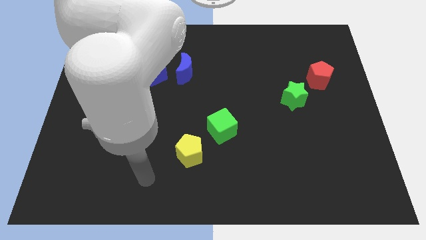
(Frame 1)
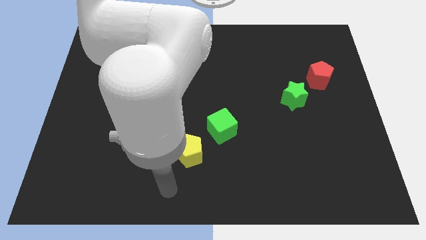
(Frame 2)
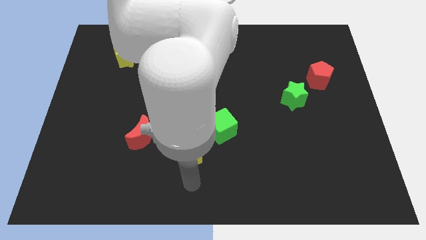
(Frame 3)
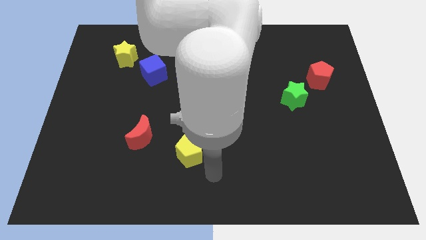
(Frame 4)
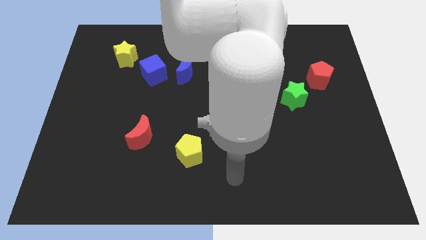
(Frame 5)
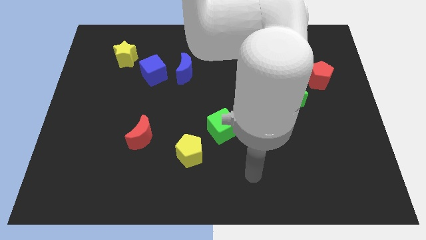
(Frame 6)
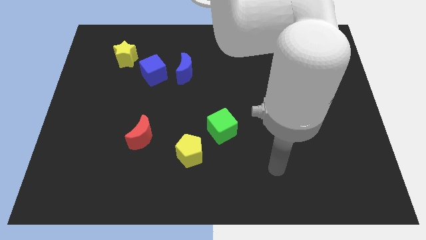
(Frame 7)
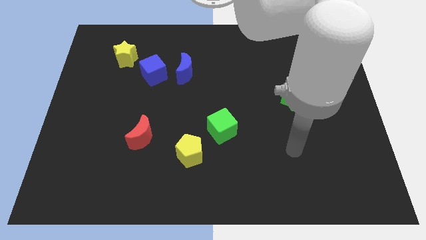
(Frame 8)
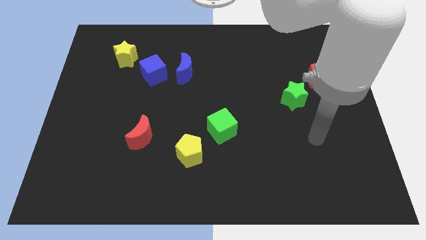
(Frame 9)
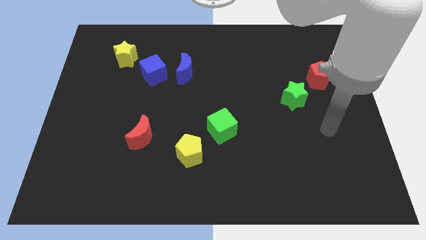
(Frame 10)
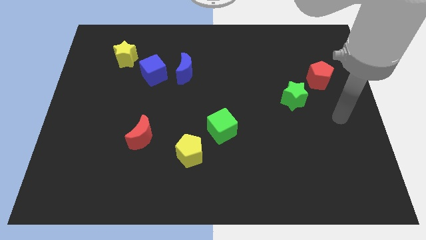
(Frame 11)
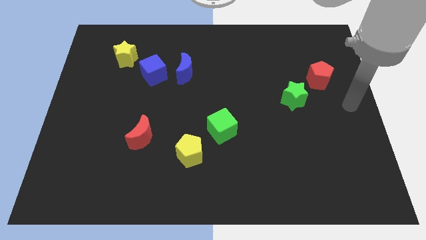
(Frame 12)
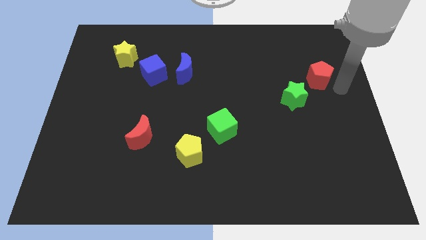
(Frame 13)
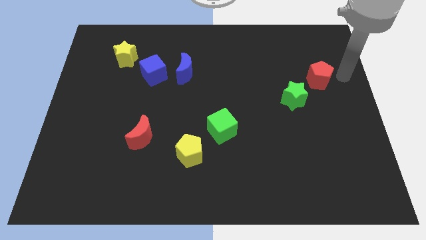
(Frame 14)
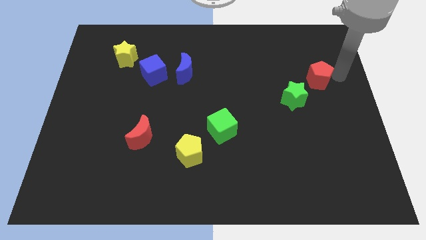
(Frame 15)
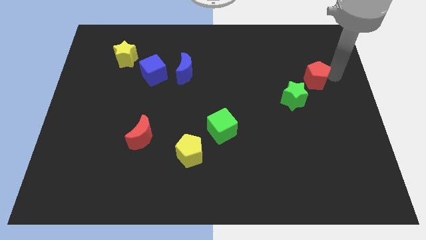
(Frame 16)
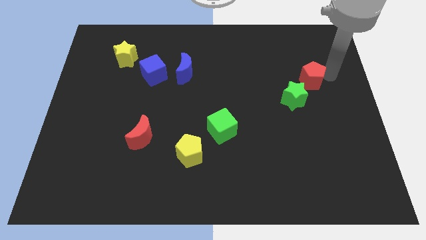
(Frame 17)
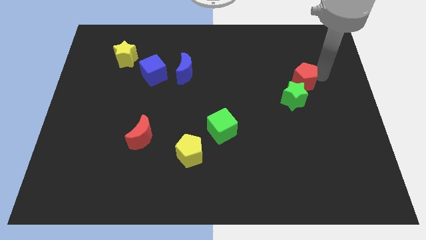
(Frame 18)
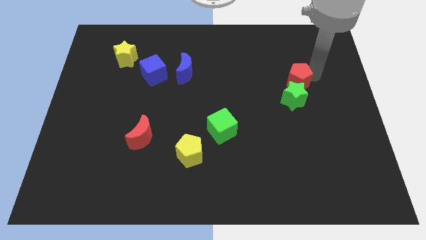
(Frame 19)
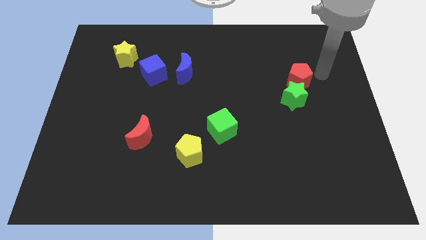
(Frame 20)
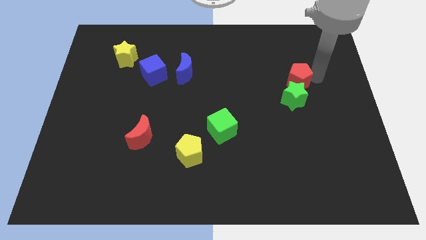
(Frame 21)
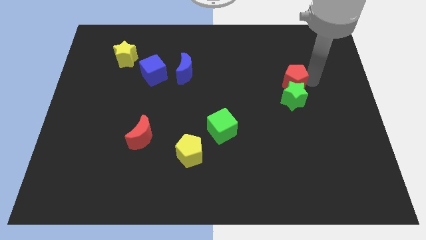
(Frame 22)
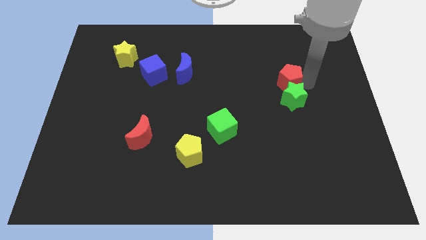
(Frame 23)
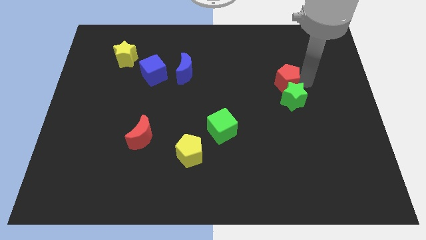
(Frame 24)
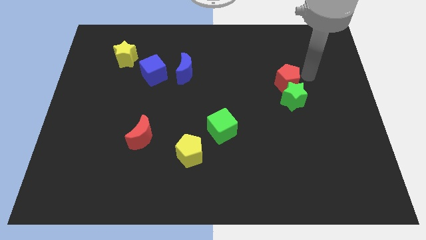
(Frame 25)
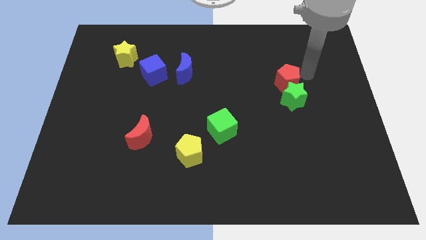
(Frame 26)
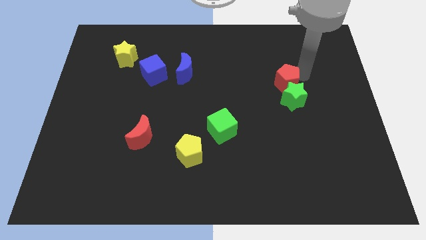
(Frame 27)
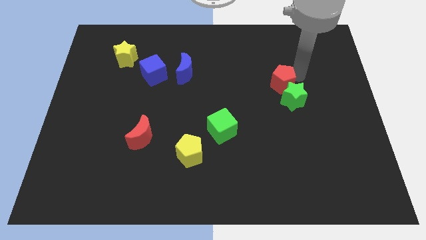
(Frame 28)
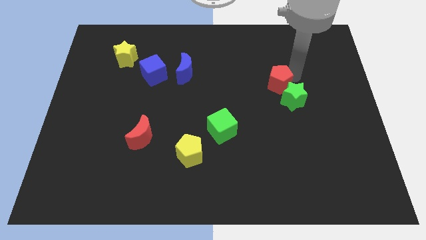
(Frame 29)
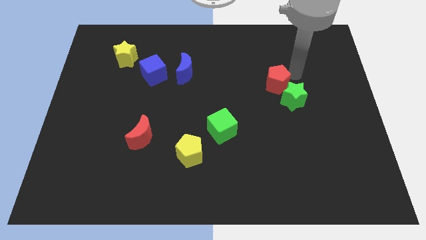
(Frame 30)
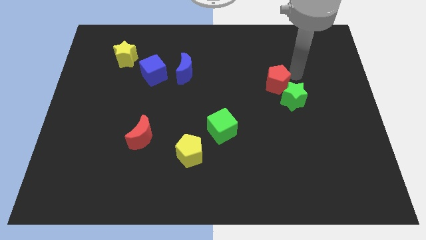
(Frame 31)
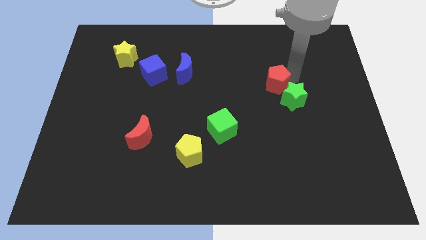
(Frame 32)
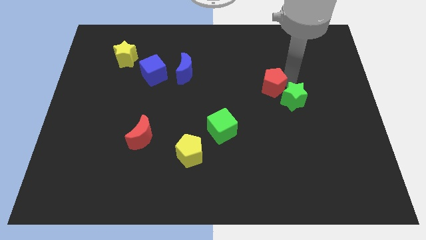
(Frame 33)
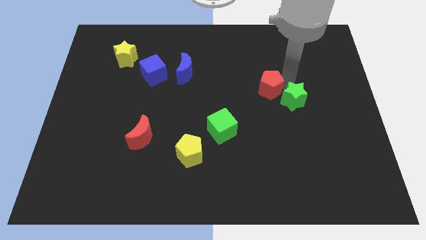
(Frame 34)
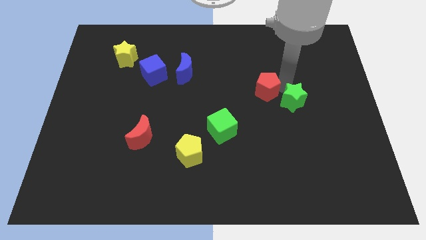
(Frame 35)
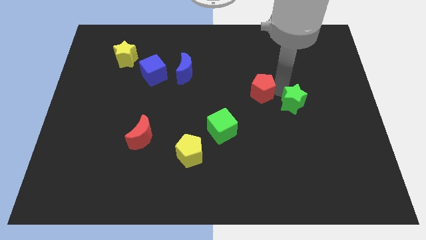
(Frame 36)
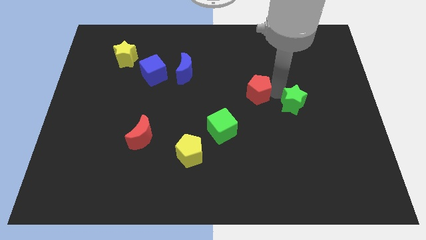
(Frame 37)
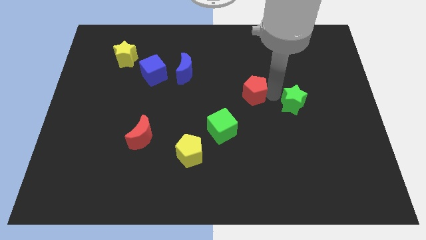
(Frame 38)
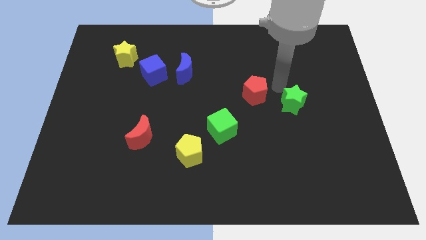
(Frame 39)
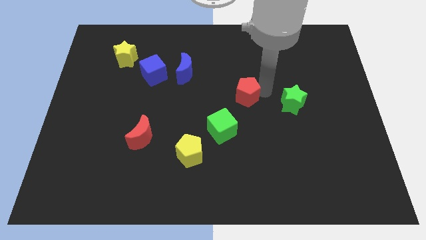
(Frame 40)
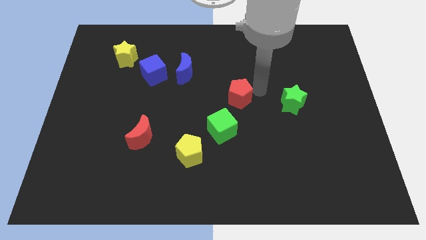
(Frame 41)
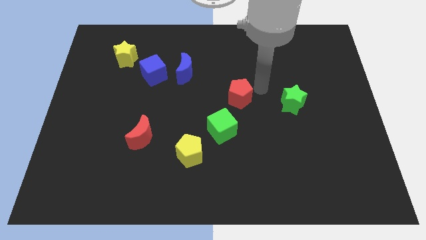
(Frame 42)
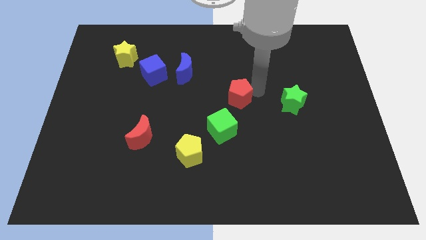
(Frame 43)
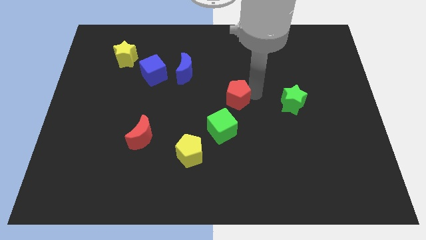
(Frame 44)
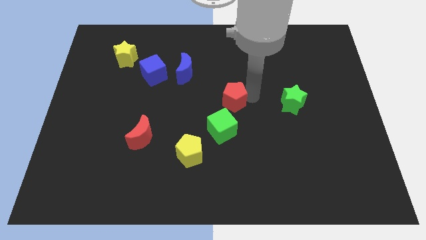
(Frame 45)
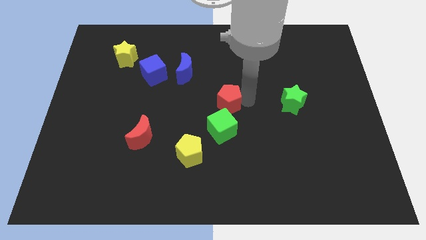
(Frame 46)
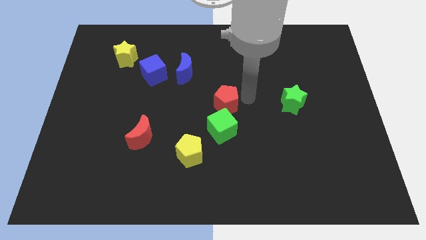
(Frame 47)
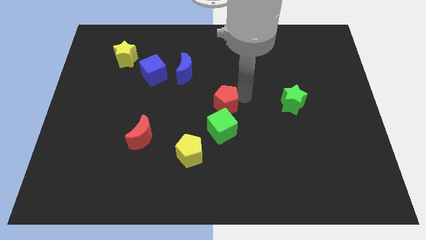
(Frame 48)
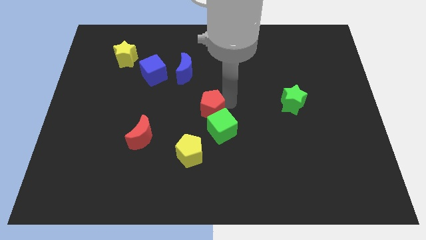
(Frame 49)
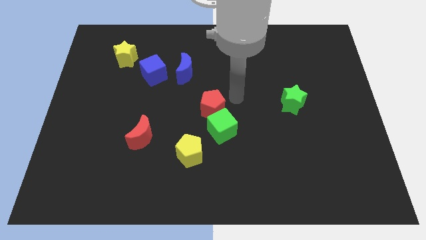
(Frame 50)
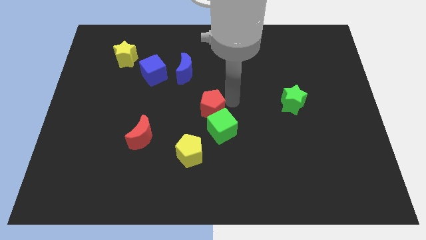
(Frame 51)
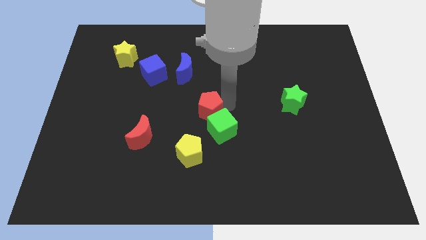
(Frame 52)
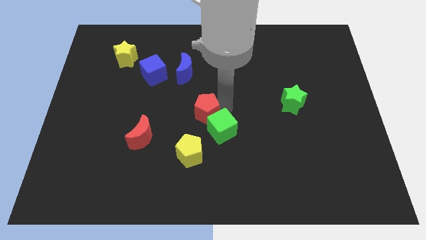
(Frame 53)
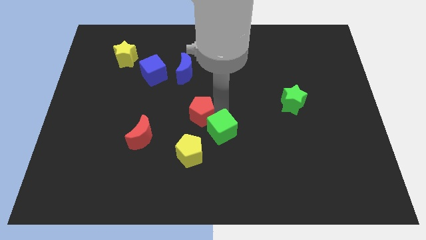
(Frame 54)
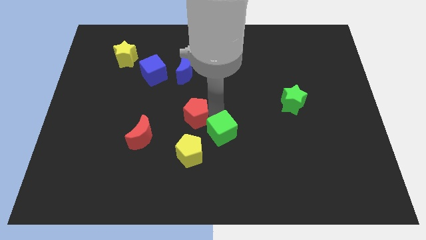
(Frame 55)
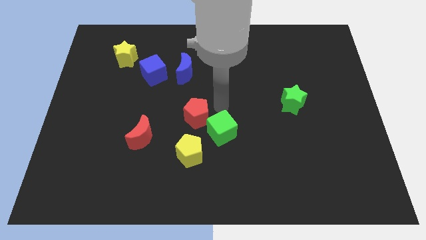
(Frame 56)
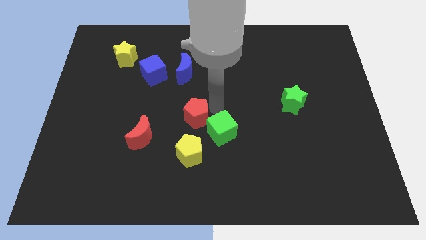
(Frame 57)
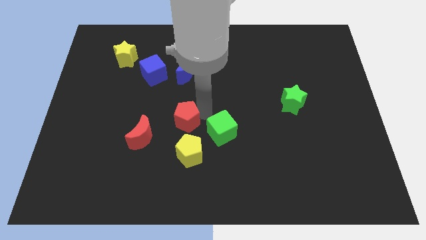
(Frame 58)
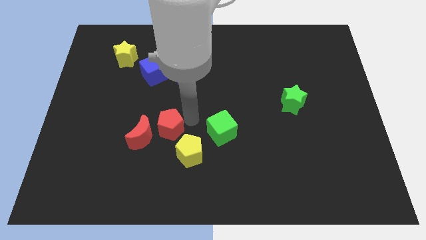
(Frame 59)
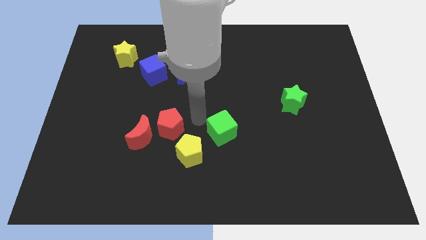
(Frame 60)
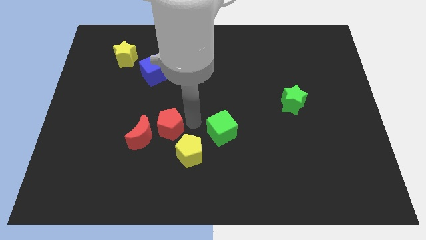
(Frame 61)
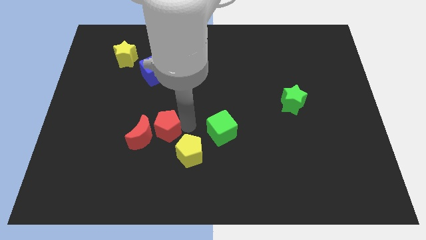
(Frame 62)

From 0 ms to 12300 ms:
move the red pentagon to the red moon
